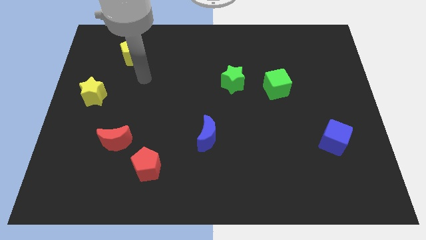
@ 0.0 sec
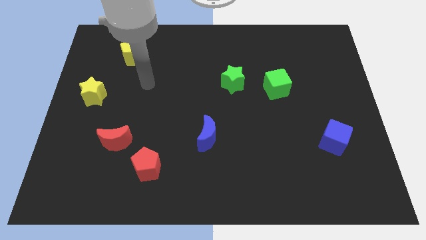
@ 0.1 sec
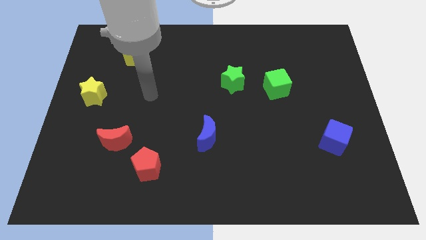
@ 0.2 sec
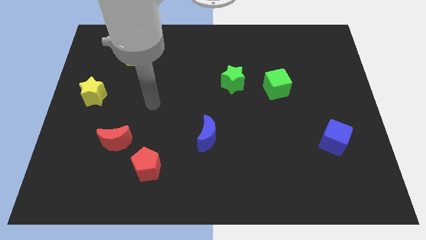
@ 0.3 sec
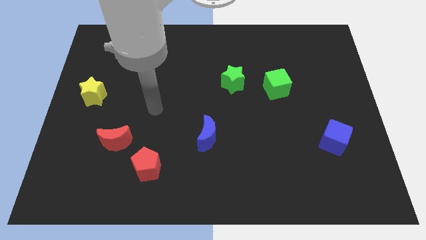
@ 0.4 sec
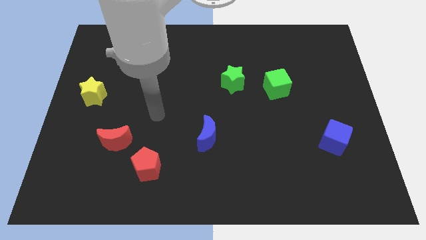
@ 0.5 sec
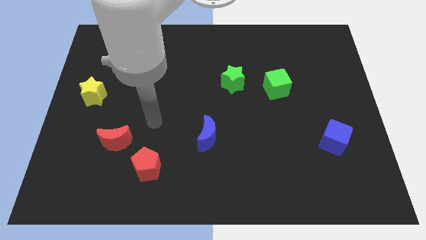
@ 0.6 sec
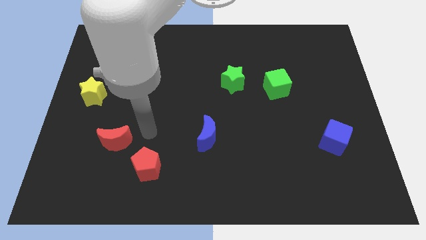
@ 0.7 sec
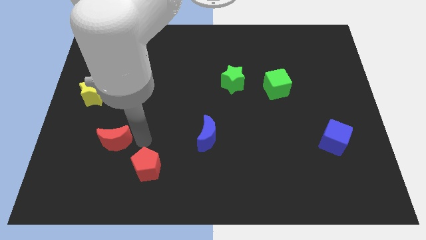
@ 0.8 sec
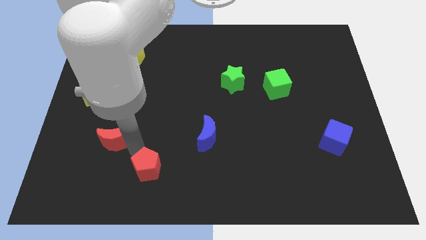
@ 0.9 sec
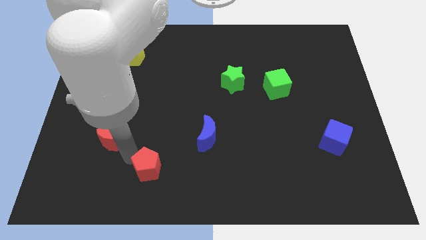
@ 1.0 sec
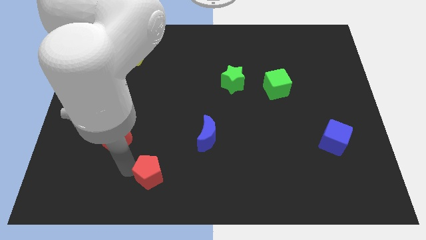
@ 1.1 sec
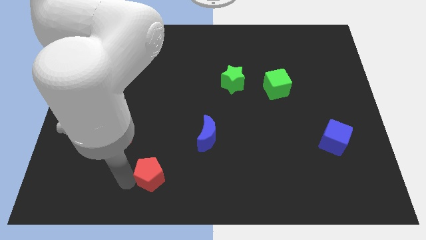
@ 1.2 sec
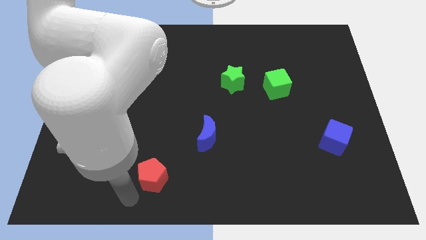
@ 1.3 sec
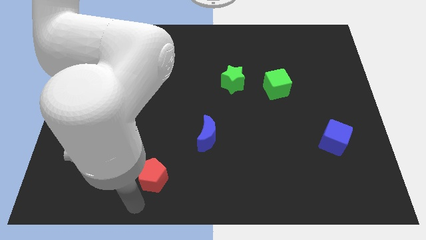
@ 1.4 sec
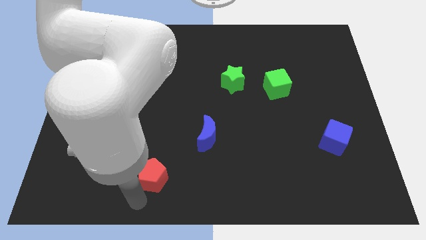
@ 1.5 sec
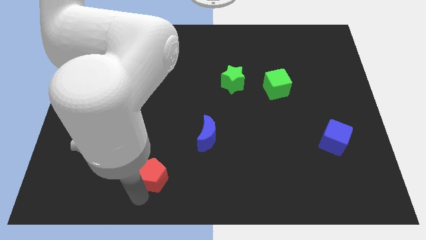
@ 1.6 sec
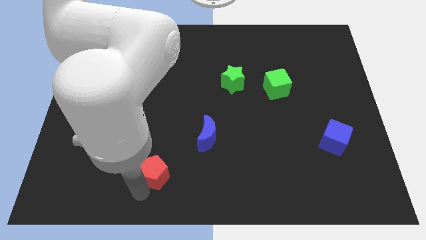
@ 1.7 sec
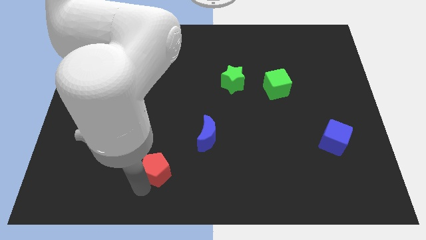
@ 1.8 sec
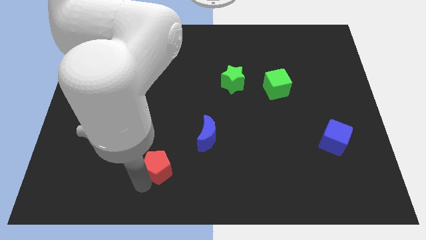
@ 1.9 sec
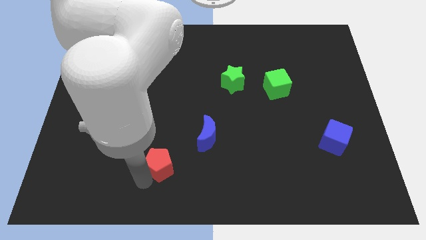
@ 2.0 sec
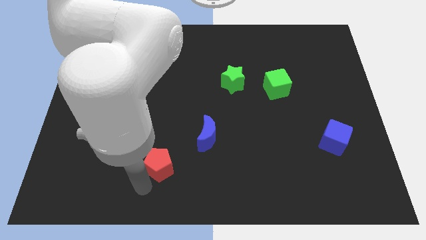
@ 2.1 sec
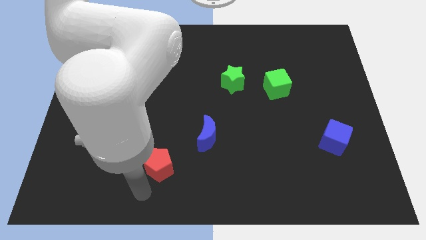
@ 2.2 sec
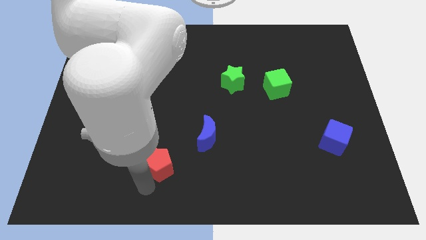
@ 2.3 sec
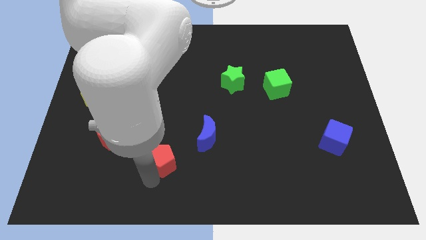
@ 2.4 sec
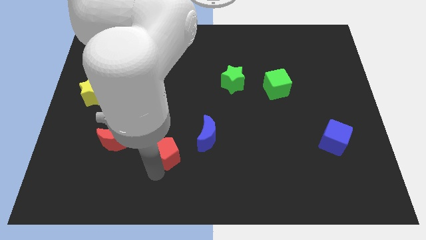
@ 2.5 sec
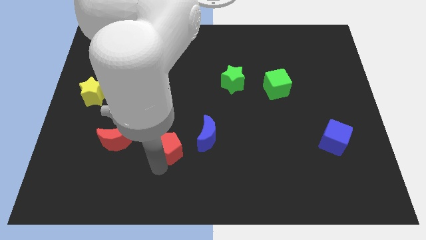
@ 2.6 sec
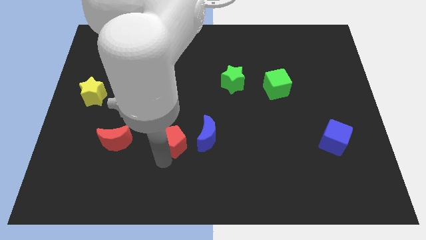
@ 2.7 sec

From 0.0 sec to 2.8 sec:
move the red pentagon diagonally upwards and right somewhat

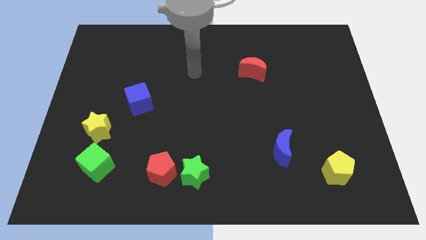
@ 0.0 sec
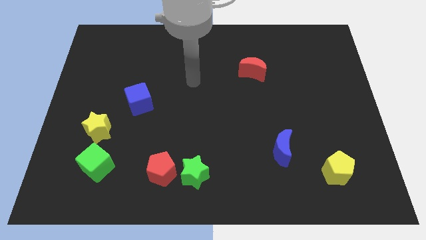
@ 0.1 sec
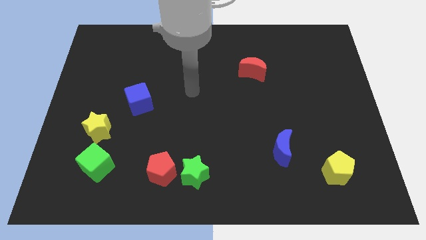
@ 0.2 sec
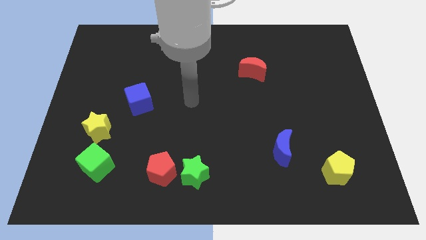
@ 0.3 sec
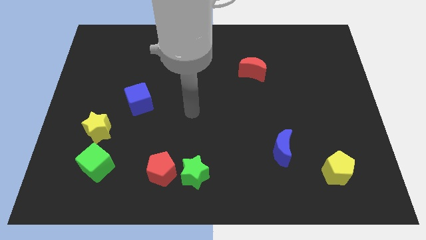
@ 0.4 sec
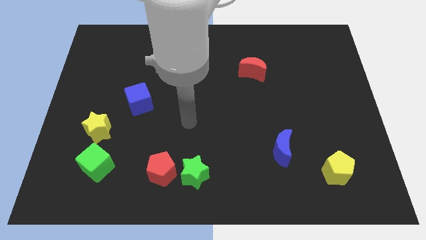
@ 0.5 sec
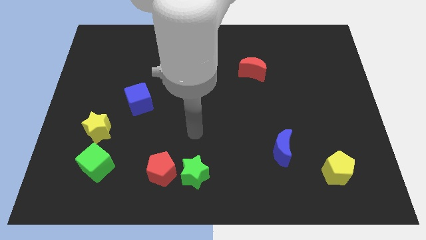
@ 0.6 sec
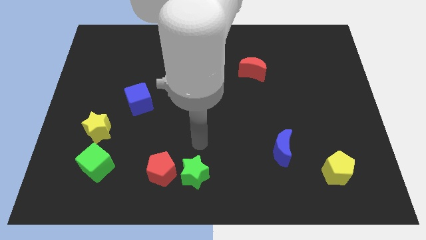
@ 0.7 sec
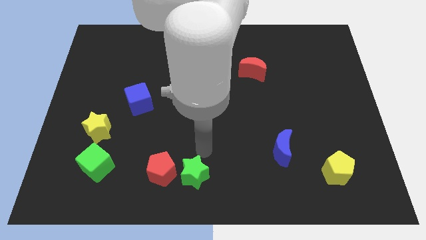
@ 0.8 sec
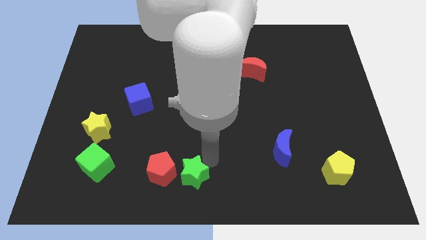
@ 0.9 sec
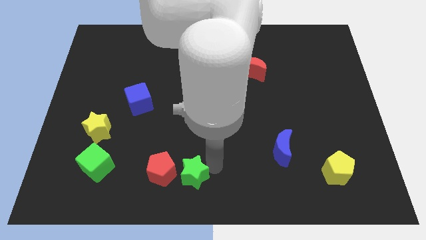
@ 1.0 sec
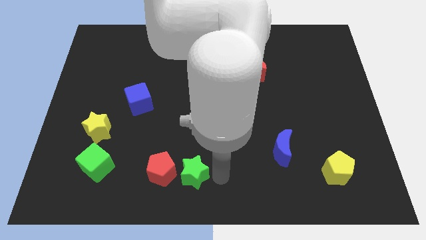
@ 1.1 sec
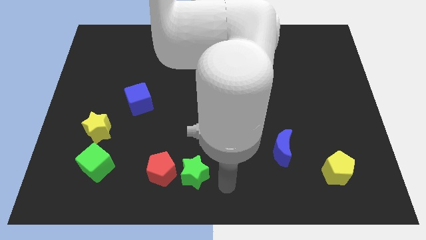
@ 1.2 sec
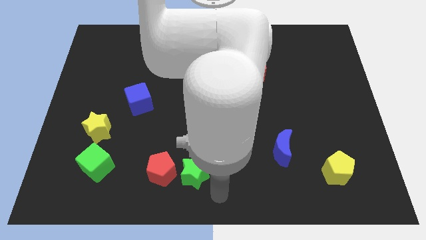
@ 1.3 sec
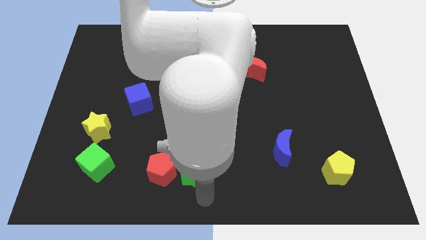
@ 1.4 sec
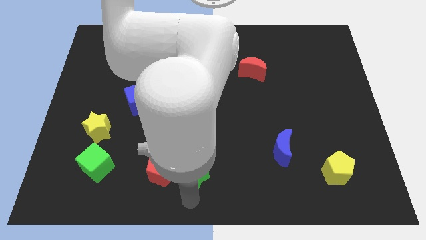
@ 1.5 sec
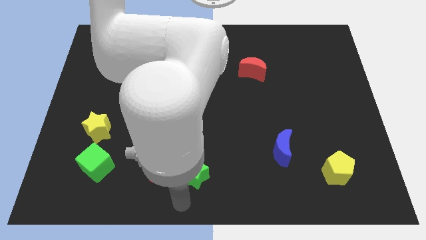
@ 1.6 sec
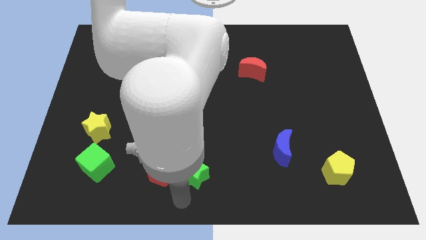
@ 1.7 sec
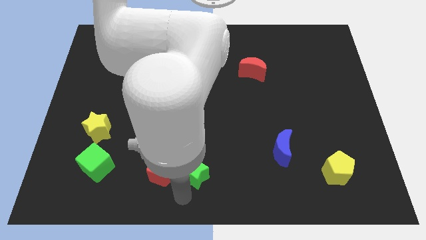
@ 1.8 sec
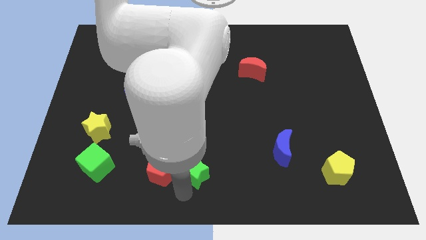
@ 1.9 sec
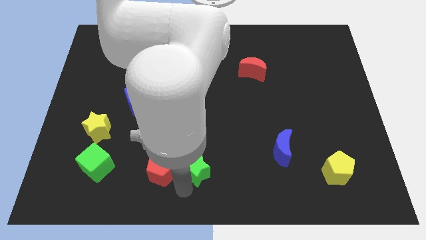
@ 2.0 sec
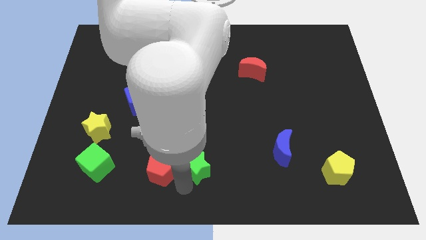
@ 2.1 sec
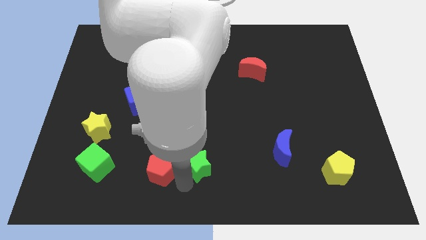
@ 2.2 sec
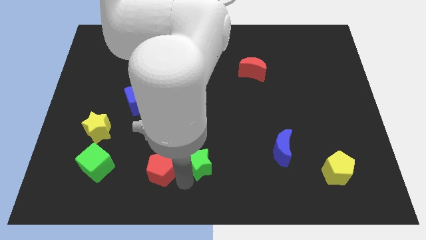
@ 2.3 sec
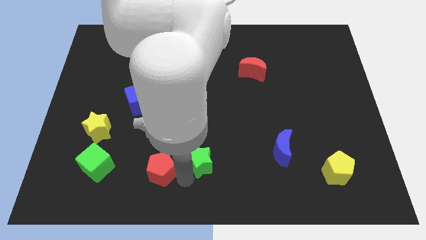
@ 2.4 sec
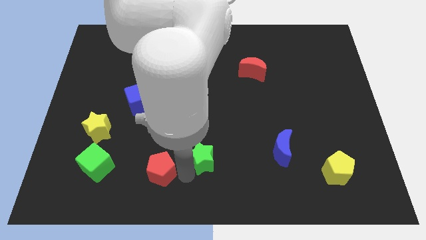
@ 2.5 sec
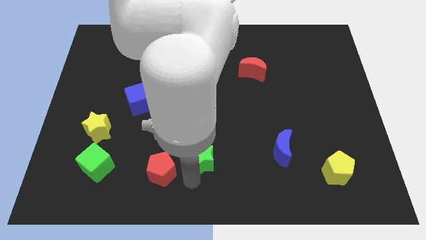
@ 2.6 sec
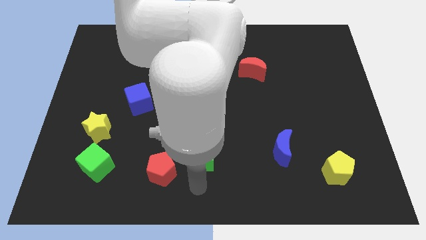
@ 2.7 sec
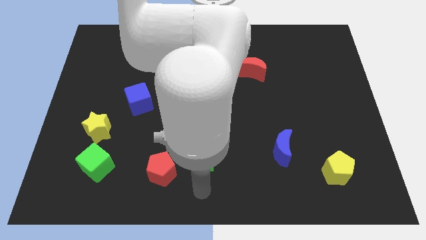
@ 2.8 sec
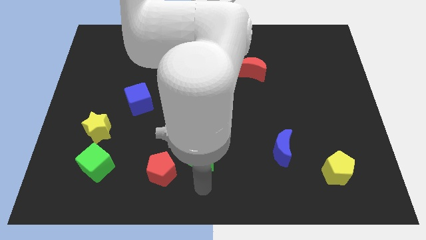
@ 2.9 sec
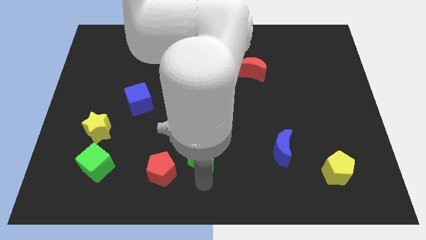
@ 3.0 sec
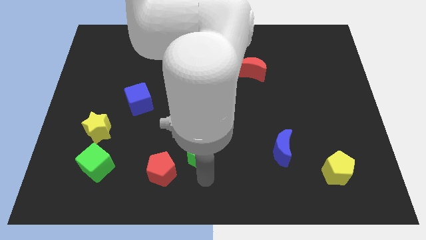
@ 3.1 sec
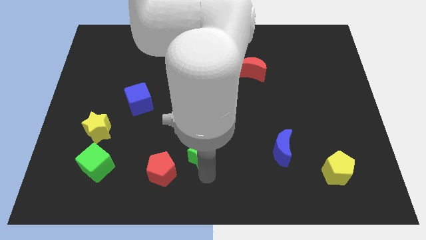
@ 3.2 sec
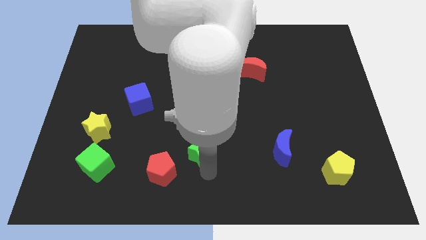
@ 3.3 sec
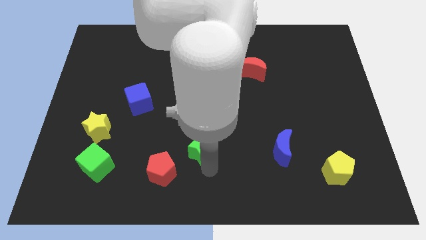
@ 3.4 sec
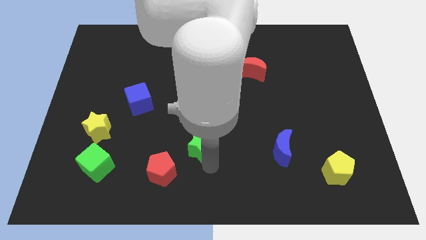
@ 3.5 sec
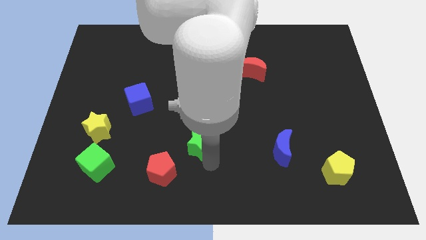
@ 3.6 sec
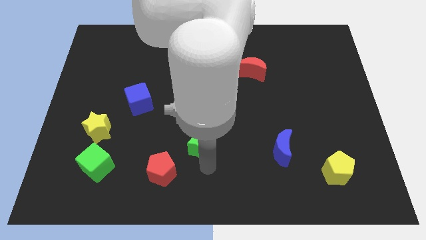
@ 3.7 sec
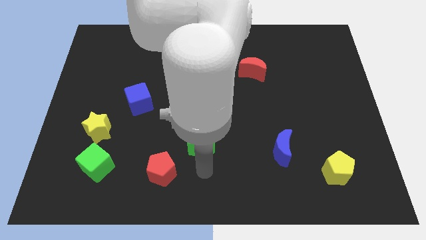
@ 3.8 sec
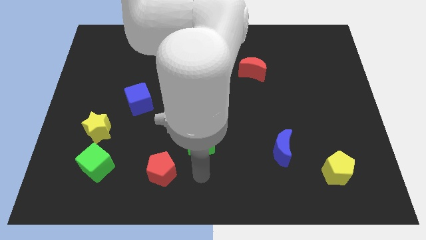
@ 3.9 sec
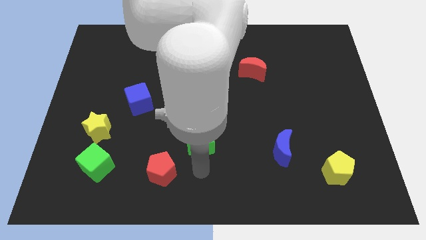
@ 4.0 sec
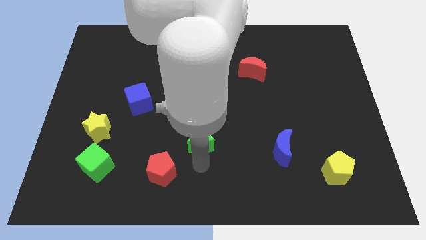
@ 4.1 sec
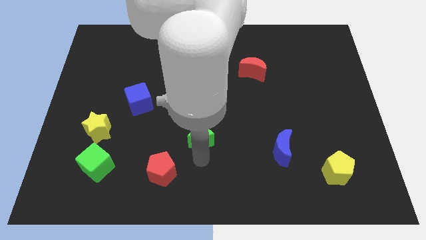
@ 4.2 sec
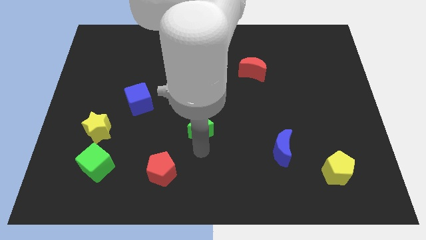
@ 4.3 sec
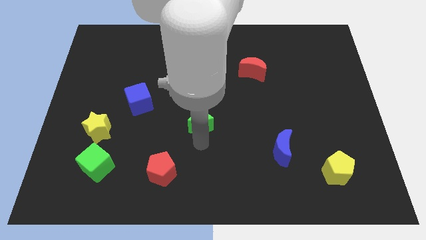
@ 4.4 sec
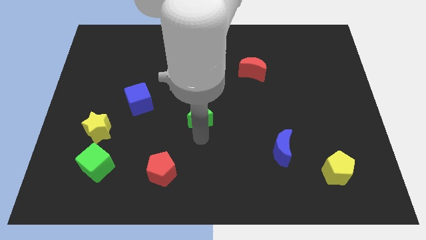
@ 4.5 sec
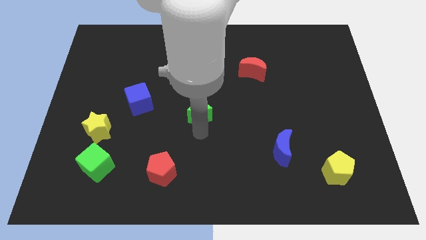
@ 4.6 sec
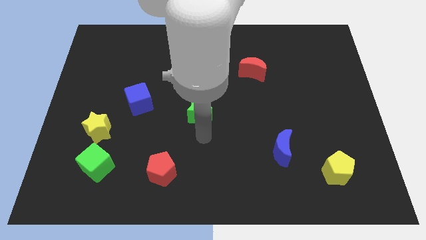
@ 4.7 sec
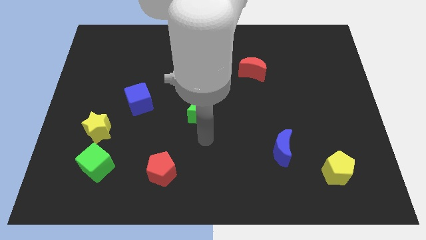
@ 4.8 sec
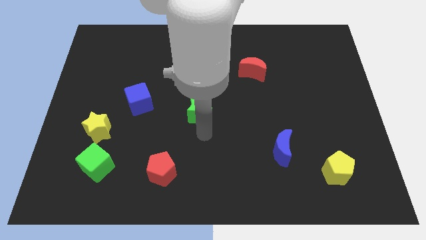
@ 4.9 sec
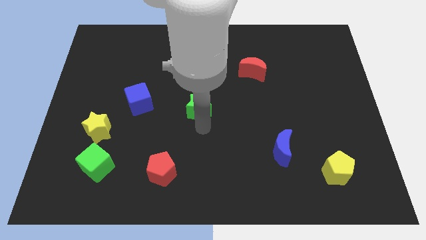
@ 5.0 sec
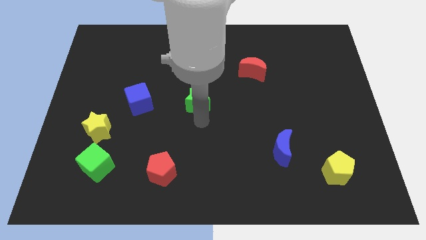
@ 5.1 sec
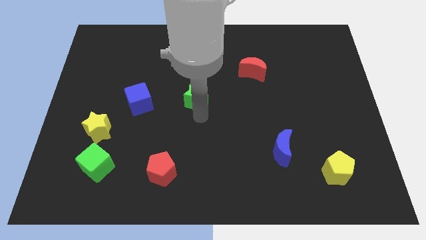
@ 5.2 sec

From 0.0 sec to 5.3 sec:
push the green star up
